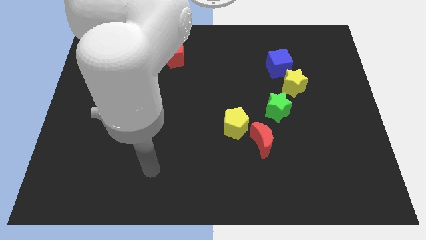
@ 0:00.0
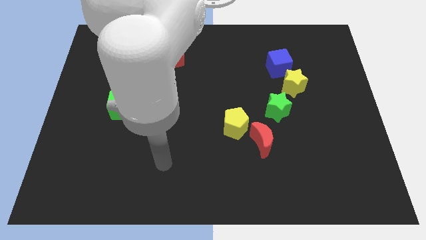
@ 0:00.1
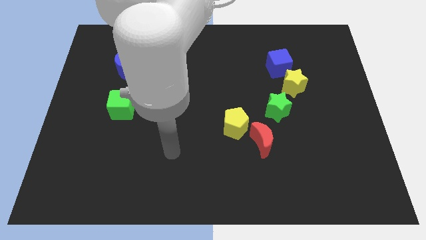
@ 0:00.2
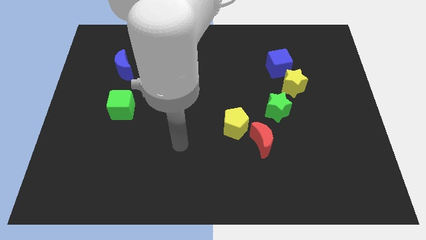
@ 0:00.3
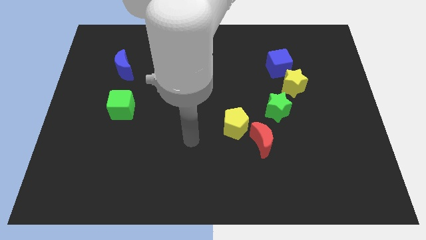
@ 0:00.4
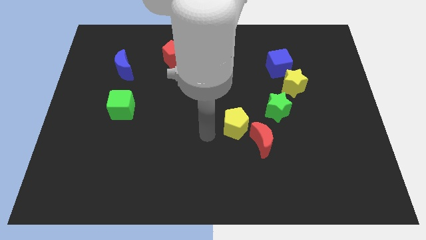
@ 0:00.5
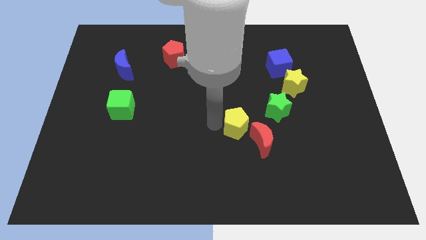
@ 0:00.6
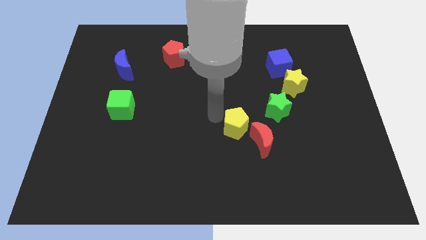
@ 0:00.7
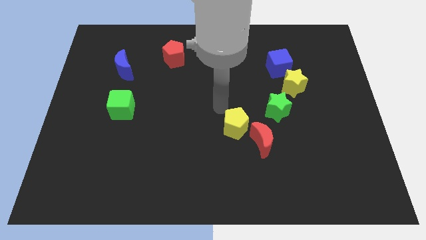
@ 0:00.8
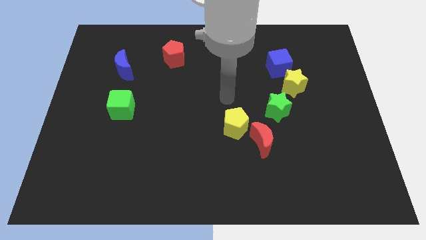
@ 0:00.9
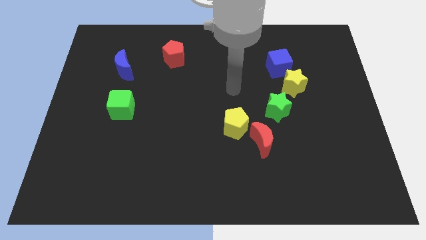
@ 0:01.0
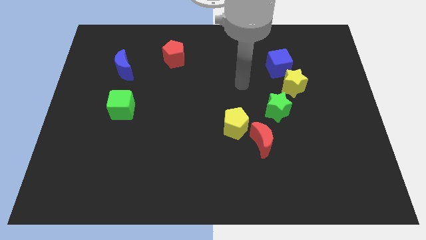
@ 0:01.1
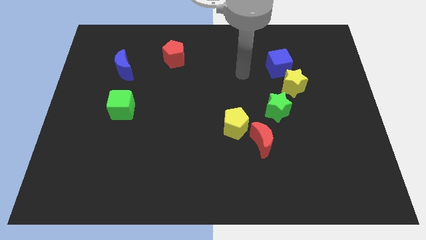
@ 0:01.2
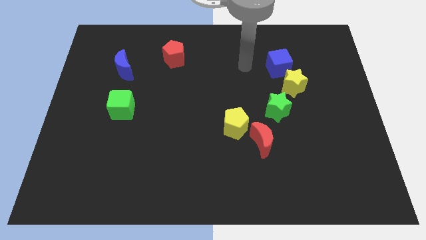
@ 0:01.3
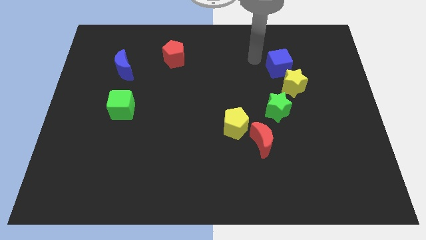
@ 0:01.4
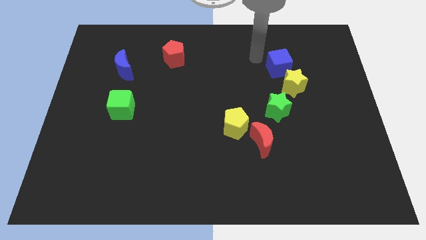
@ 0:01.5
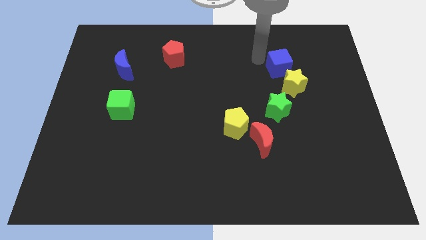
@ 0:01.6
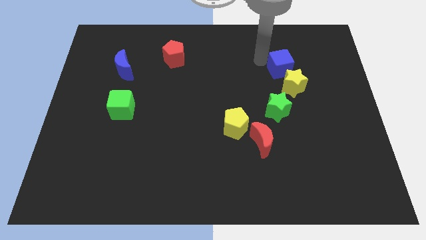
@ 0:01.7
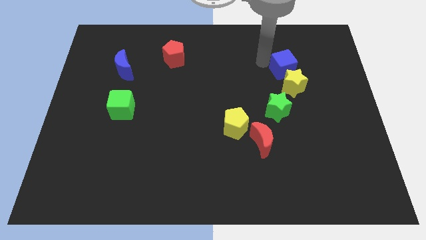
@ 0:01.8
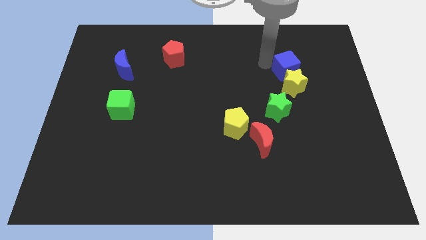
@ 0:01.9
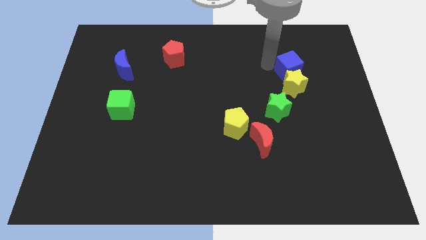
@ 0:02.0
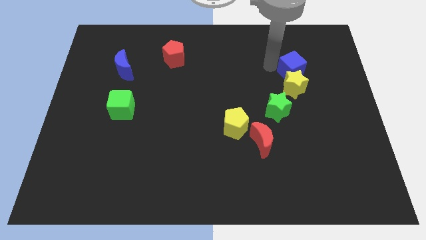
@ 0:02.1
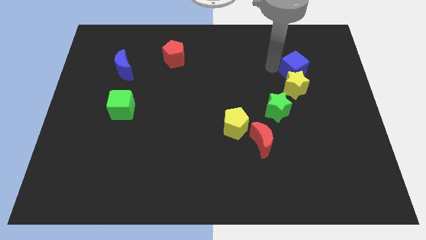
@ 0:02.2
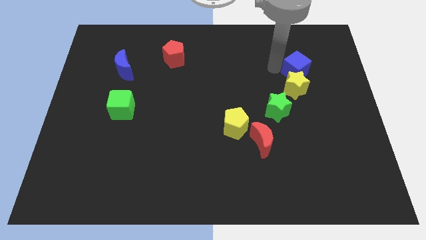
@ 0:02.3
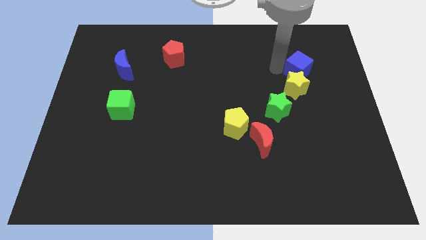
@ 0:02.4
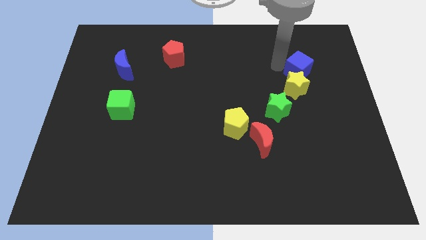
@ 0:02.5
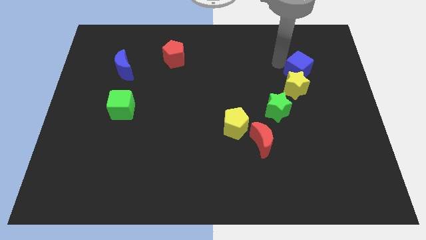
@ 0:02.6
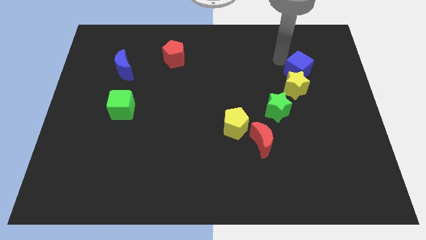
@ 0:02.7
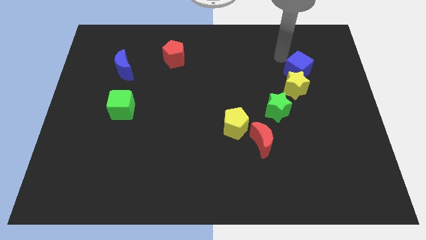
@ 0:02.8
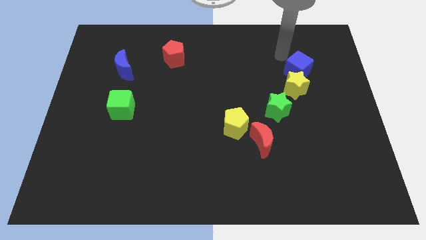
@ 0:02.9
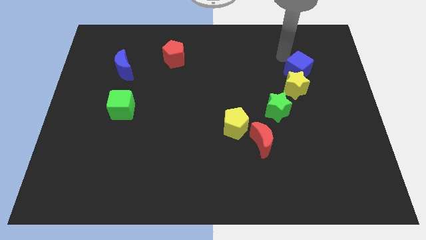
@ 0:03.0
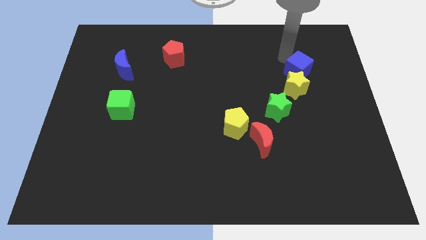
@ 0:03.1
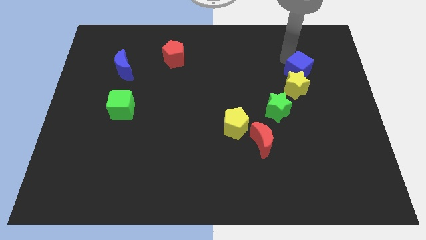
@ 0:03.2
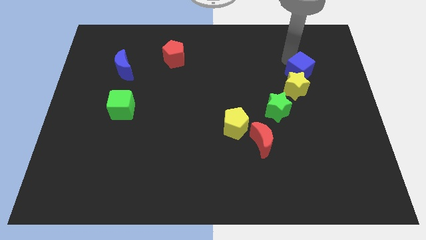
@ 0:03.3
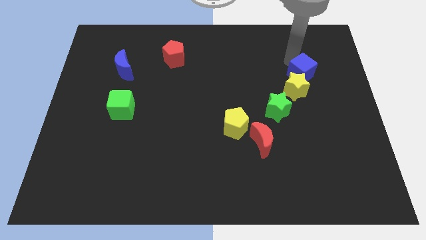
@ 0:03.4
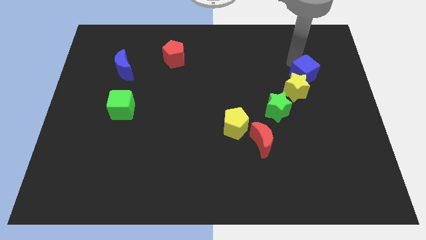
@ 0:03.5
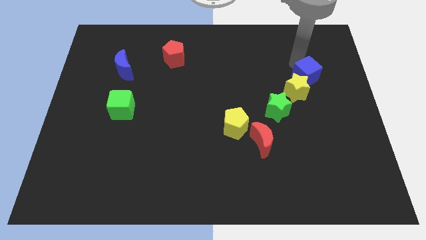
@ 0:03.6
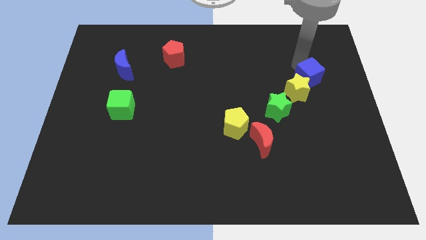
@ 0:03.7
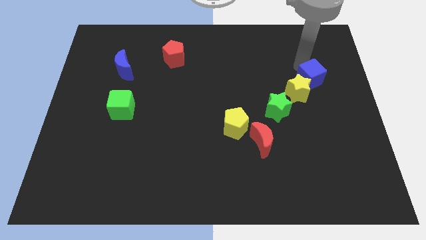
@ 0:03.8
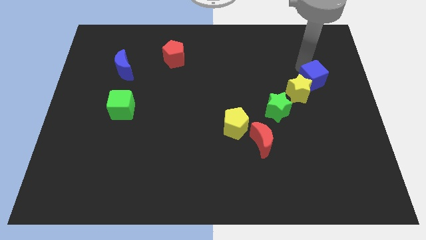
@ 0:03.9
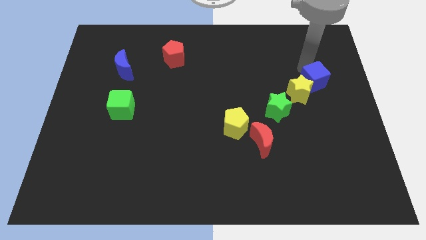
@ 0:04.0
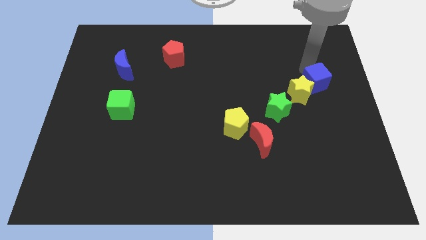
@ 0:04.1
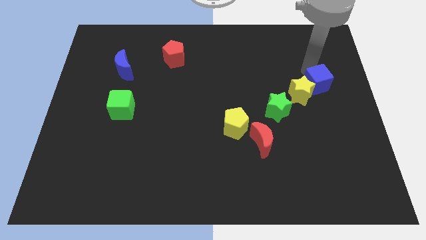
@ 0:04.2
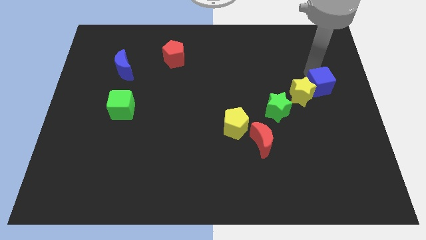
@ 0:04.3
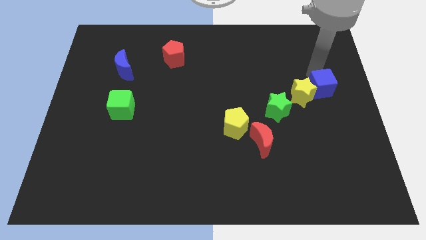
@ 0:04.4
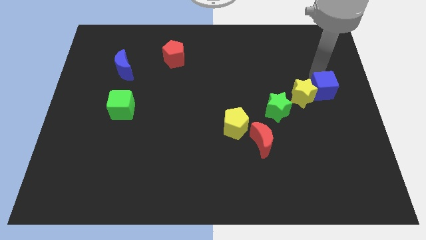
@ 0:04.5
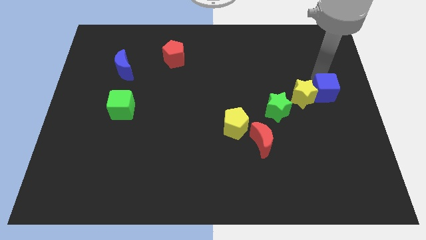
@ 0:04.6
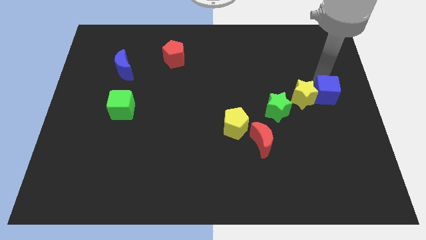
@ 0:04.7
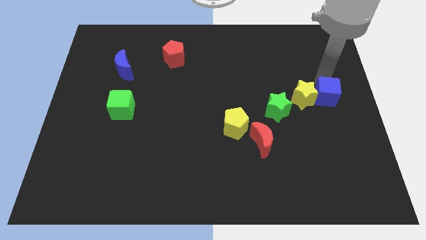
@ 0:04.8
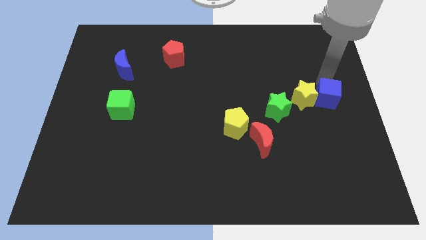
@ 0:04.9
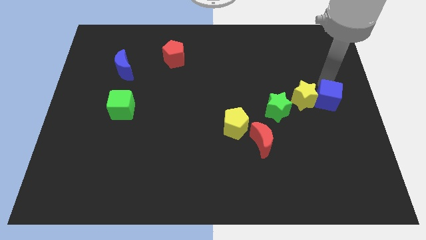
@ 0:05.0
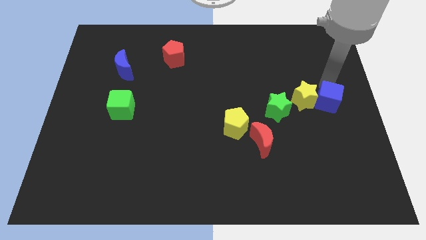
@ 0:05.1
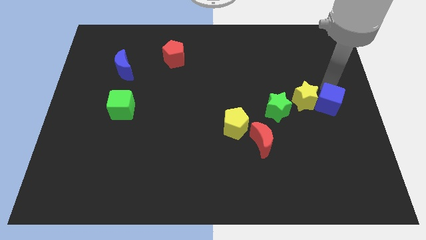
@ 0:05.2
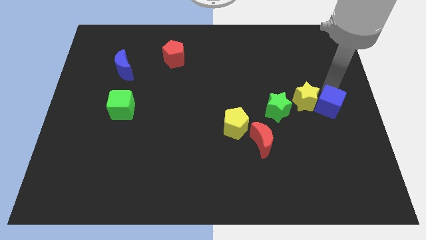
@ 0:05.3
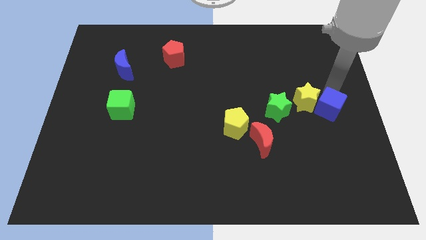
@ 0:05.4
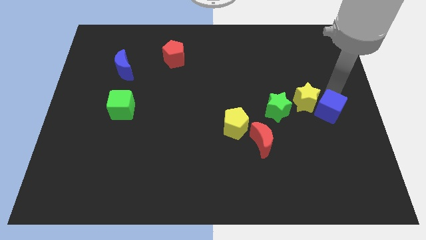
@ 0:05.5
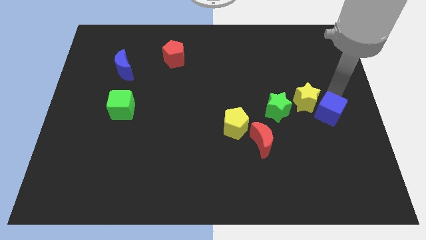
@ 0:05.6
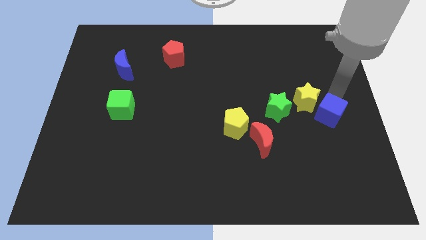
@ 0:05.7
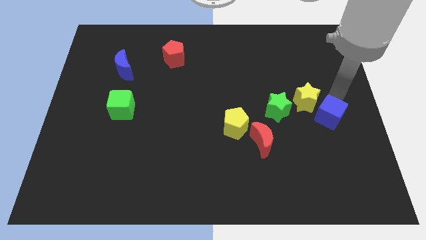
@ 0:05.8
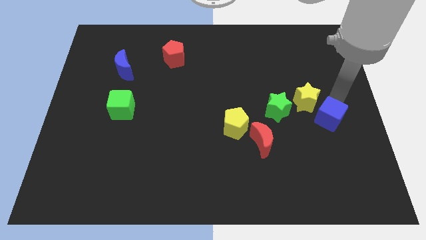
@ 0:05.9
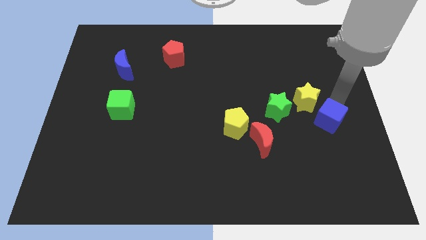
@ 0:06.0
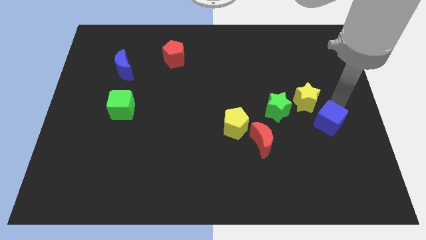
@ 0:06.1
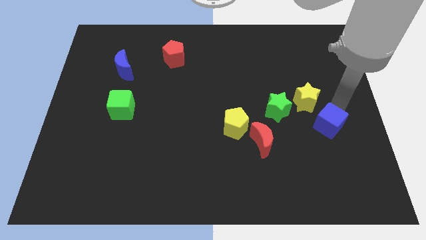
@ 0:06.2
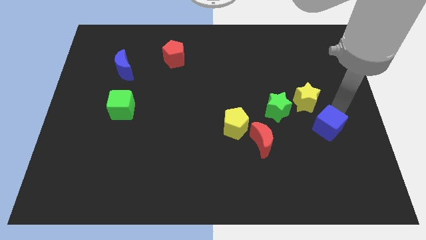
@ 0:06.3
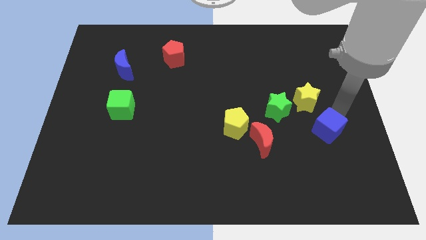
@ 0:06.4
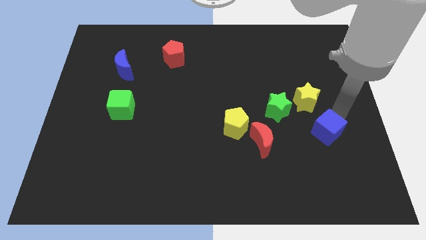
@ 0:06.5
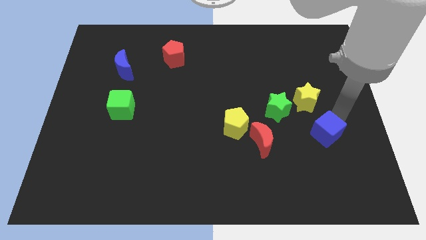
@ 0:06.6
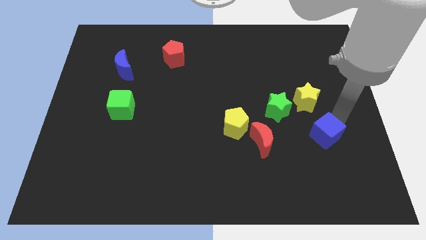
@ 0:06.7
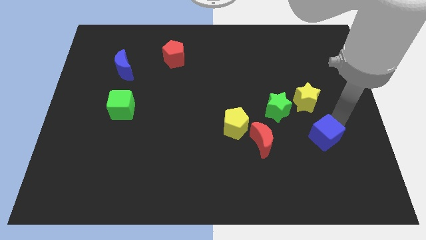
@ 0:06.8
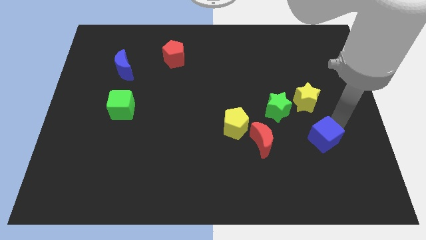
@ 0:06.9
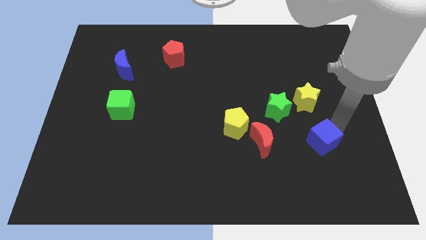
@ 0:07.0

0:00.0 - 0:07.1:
push the blue cube down

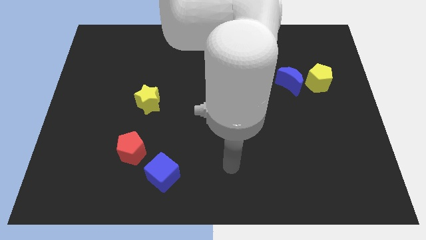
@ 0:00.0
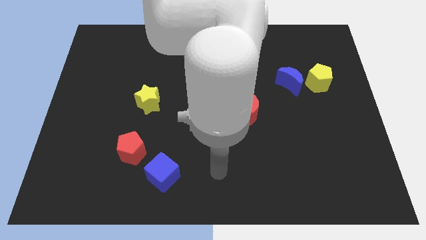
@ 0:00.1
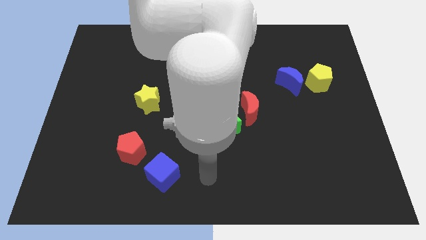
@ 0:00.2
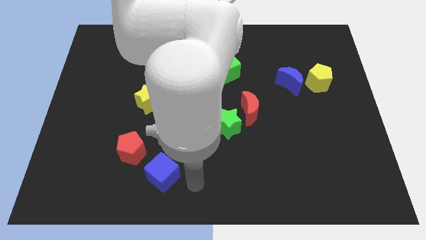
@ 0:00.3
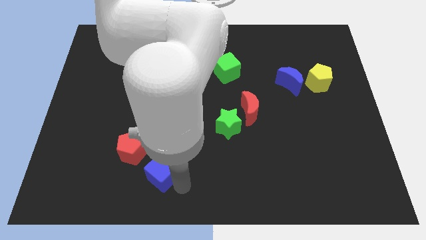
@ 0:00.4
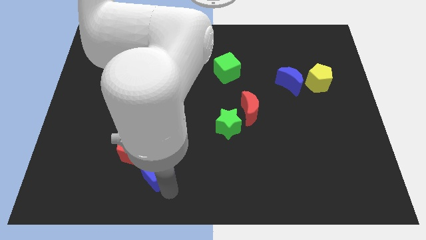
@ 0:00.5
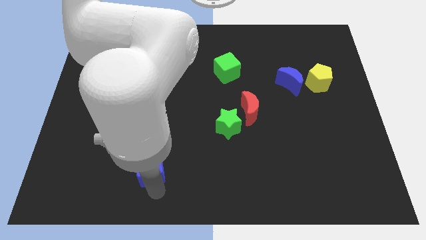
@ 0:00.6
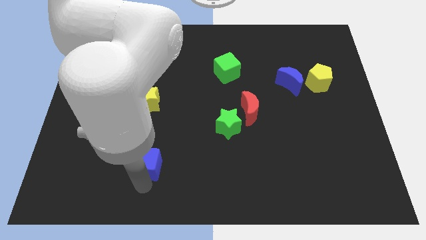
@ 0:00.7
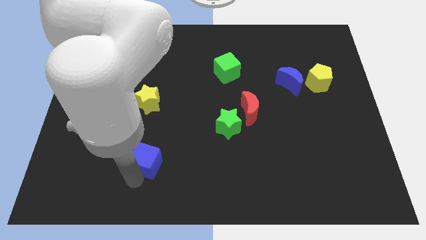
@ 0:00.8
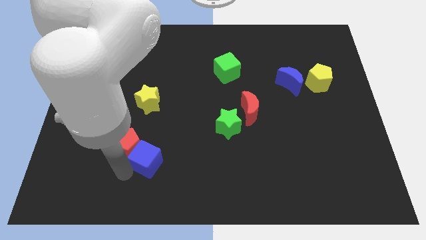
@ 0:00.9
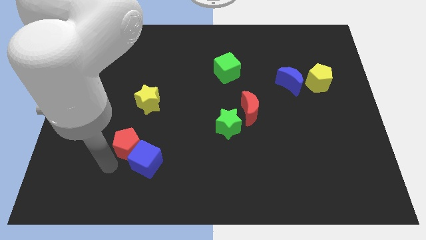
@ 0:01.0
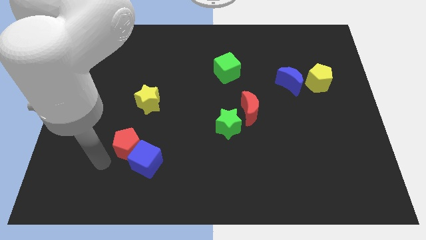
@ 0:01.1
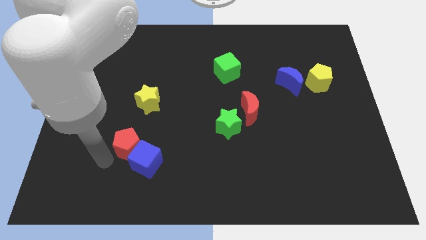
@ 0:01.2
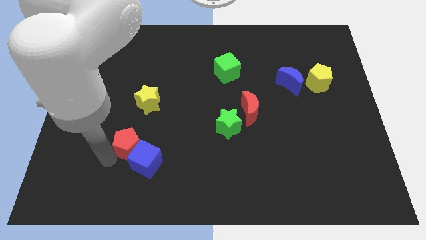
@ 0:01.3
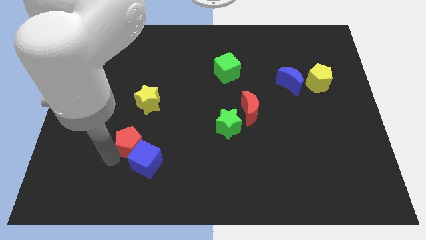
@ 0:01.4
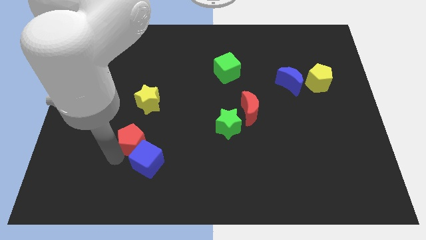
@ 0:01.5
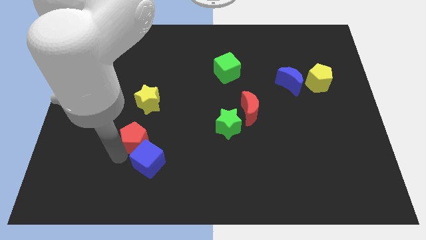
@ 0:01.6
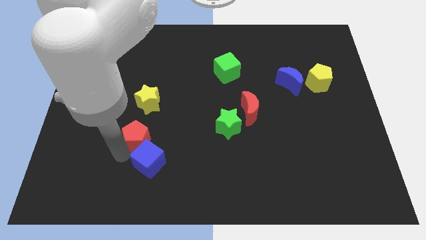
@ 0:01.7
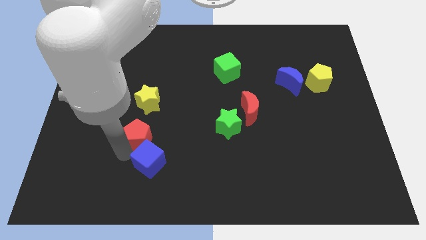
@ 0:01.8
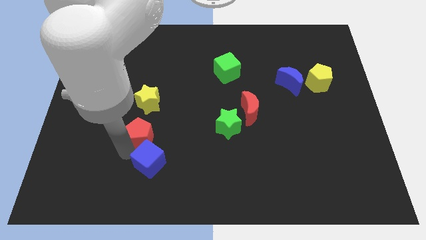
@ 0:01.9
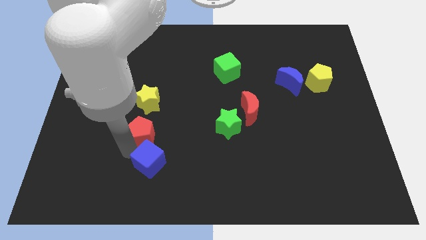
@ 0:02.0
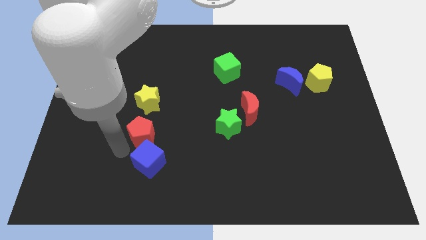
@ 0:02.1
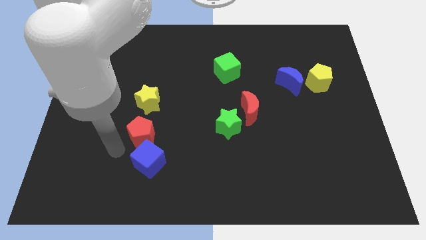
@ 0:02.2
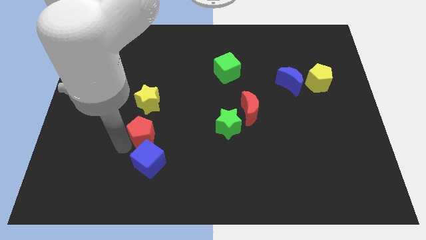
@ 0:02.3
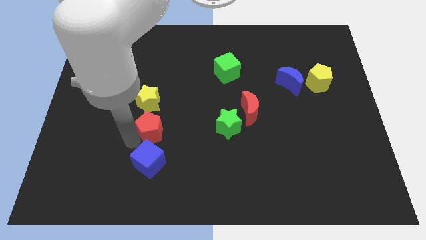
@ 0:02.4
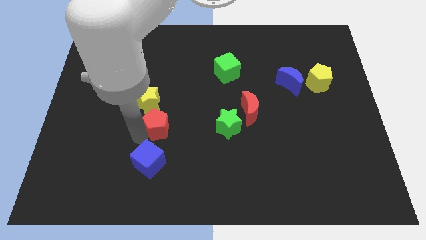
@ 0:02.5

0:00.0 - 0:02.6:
push the red pentagon slightly upwards and to the right
